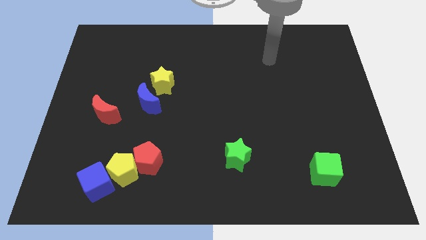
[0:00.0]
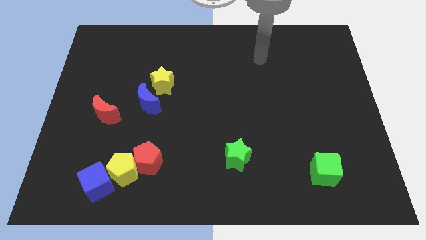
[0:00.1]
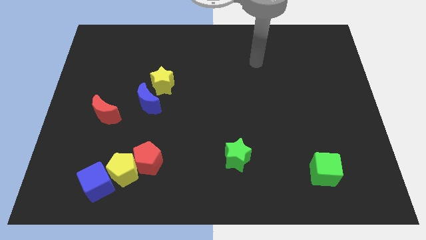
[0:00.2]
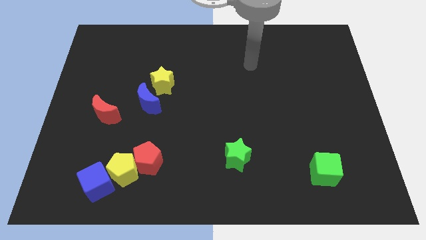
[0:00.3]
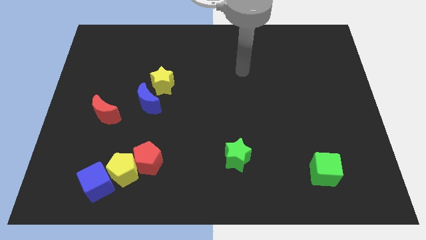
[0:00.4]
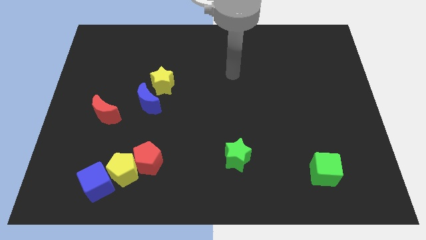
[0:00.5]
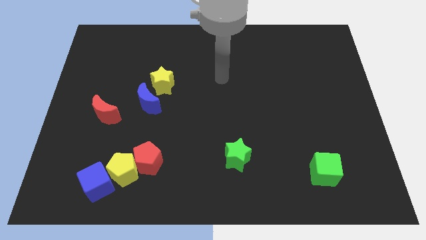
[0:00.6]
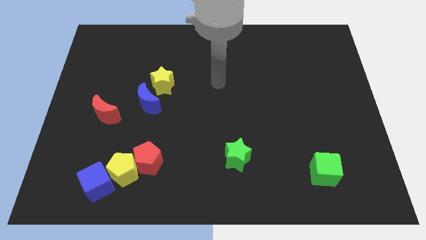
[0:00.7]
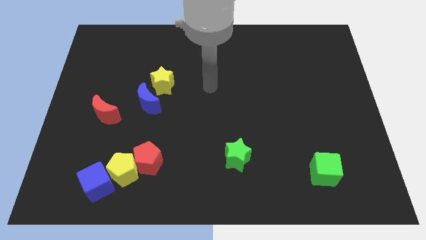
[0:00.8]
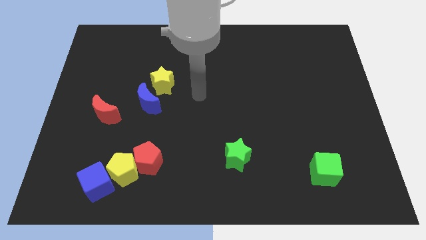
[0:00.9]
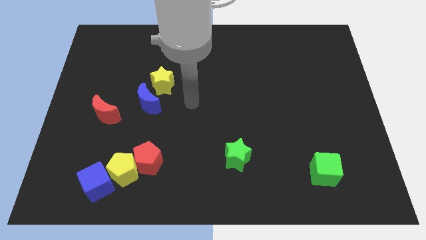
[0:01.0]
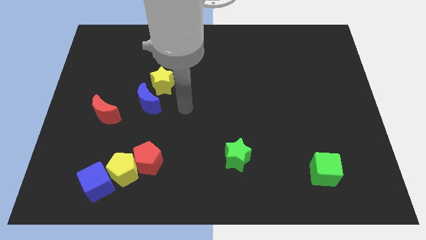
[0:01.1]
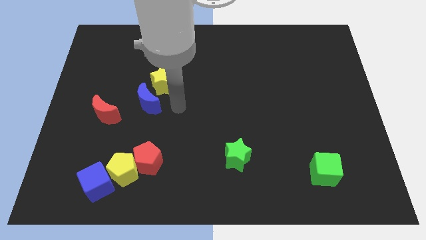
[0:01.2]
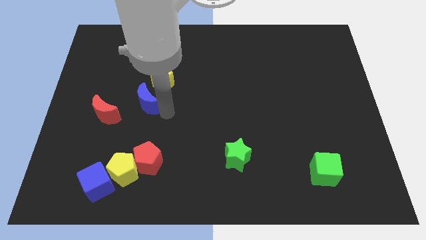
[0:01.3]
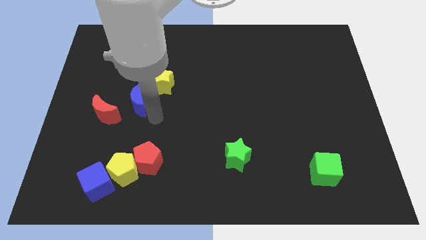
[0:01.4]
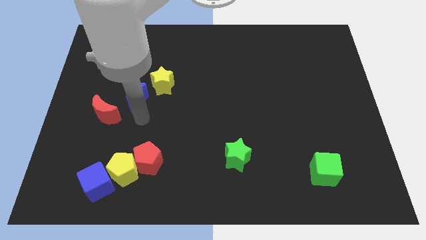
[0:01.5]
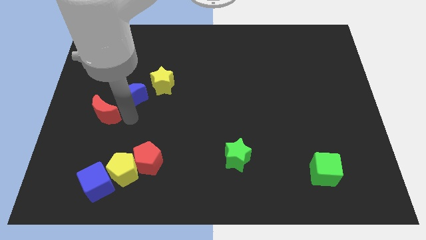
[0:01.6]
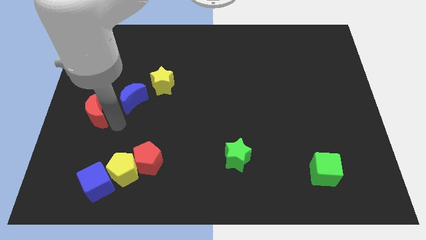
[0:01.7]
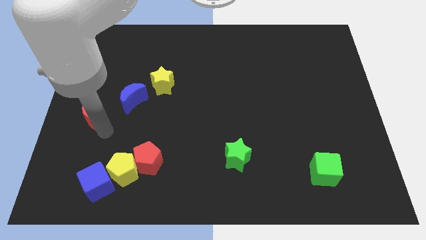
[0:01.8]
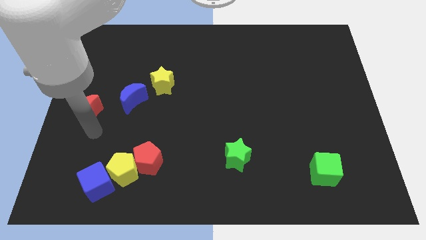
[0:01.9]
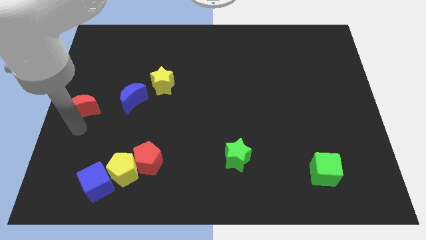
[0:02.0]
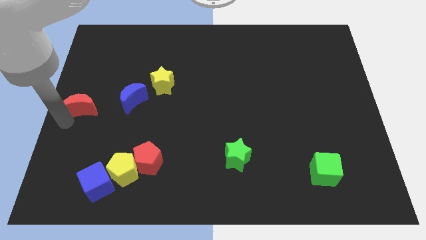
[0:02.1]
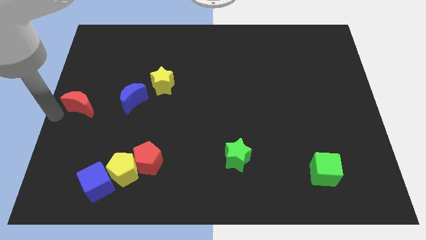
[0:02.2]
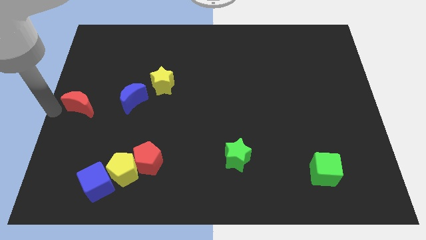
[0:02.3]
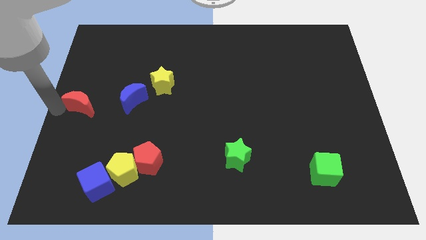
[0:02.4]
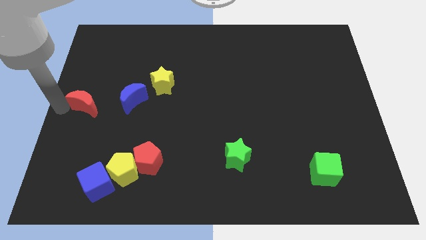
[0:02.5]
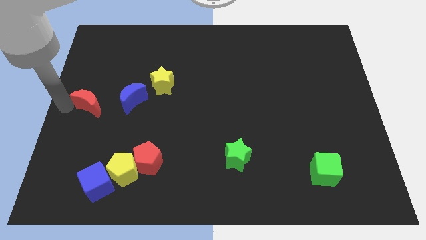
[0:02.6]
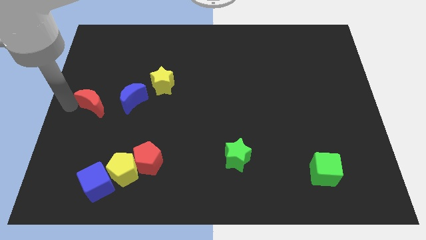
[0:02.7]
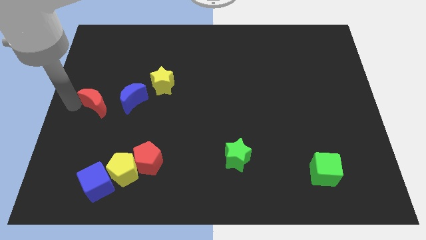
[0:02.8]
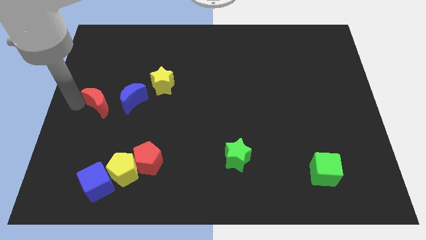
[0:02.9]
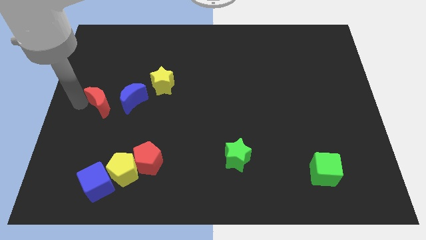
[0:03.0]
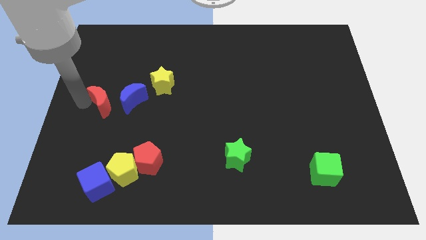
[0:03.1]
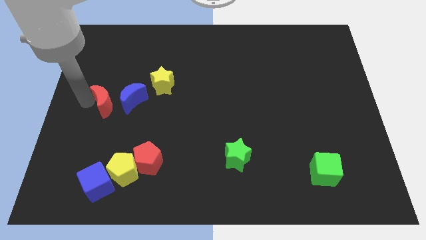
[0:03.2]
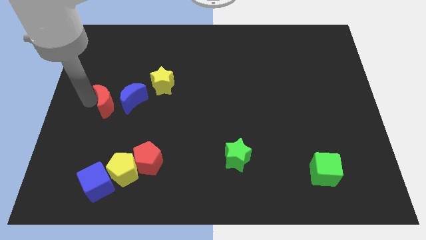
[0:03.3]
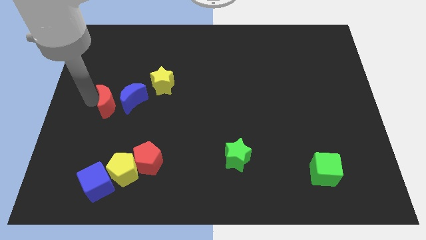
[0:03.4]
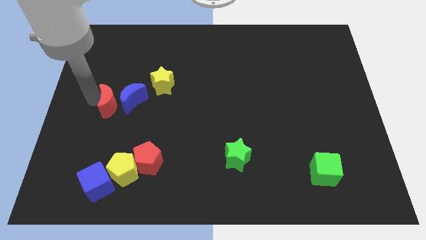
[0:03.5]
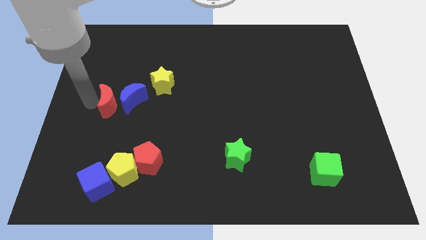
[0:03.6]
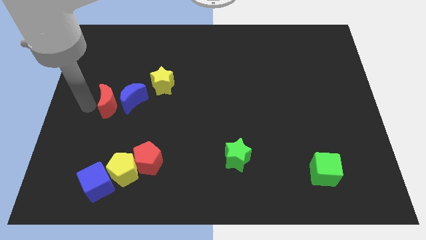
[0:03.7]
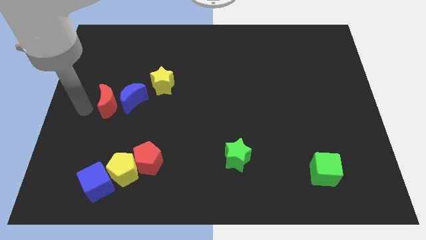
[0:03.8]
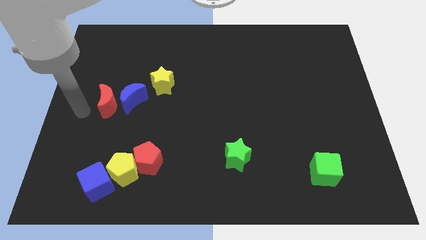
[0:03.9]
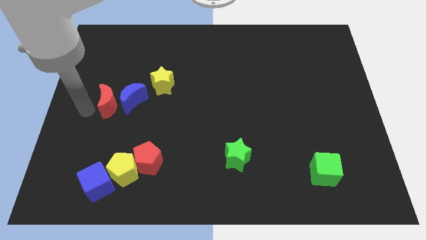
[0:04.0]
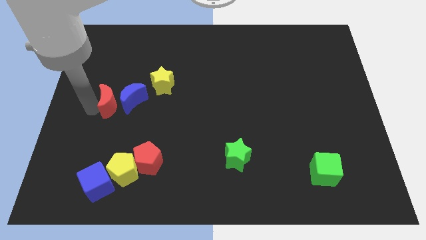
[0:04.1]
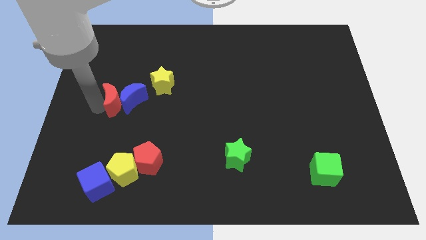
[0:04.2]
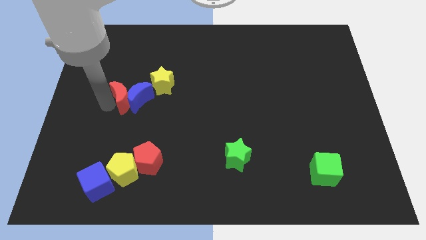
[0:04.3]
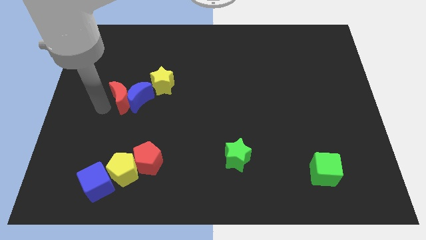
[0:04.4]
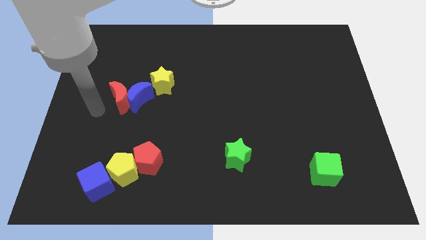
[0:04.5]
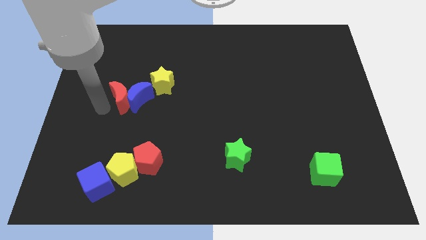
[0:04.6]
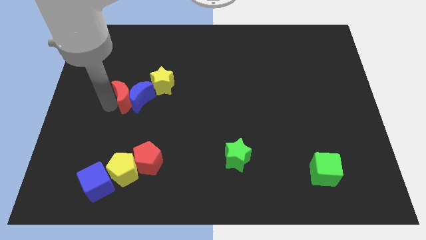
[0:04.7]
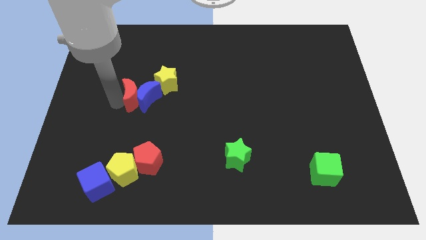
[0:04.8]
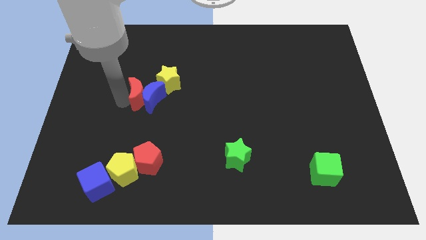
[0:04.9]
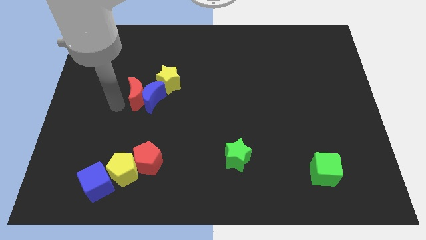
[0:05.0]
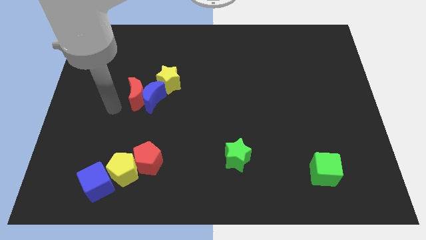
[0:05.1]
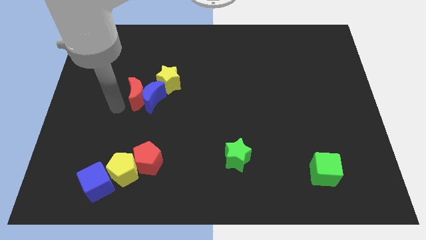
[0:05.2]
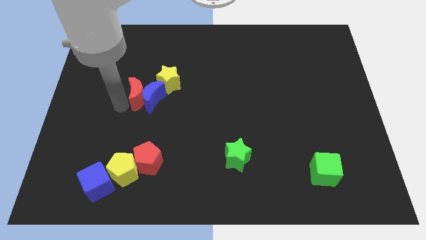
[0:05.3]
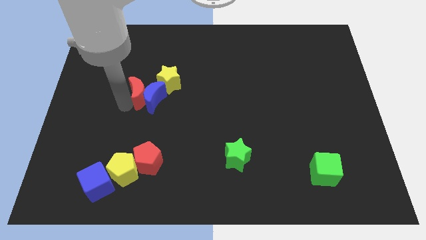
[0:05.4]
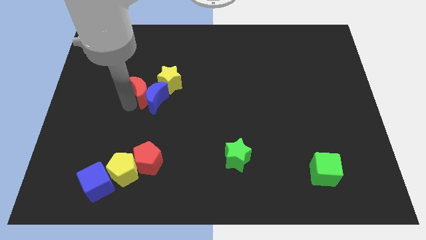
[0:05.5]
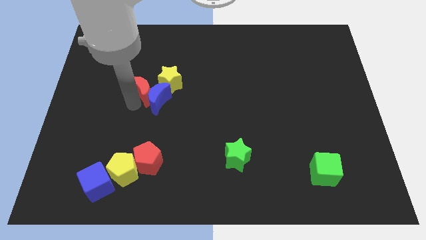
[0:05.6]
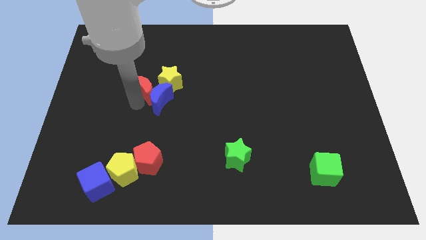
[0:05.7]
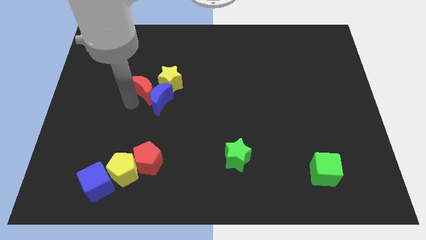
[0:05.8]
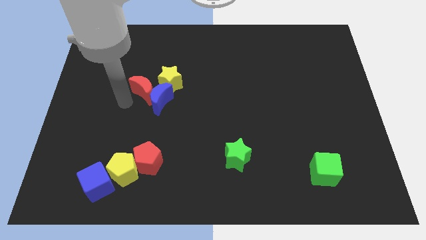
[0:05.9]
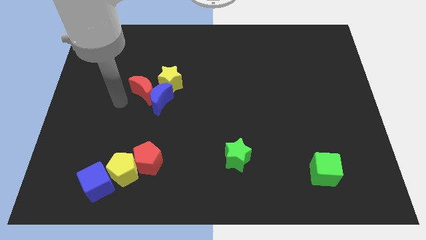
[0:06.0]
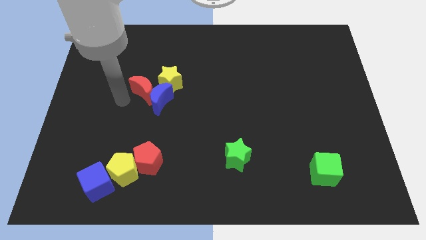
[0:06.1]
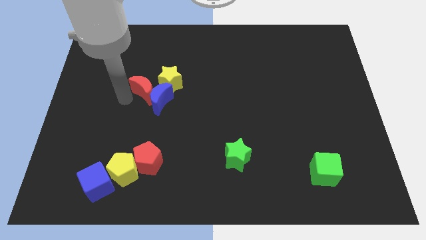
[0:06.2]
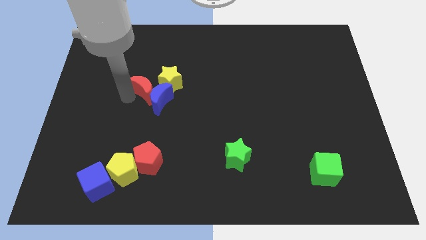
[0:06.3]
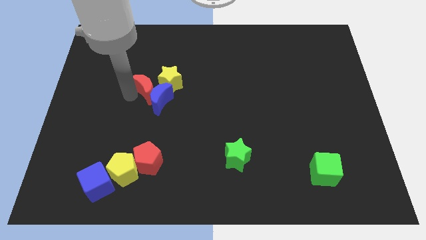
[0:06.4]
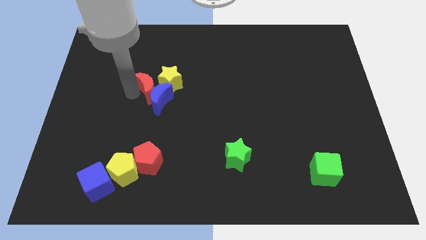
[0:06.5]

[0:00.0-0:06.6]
push the red moon next to the yellow star

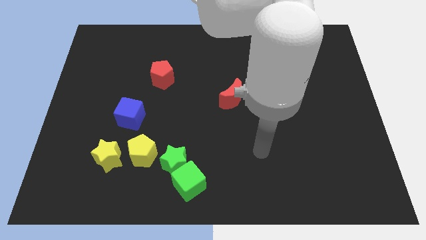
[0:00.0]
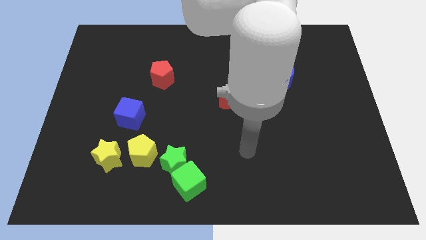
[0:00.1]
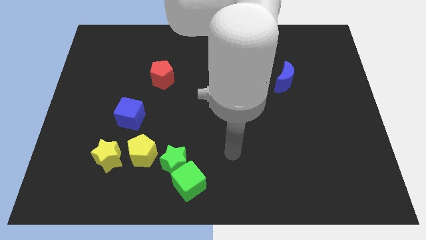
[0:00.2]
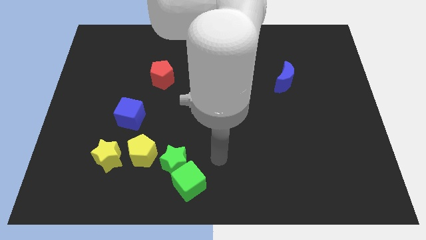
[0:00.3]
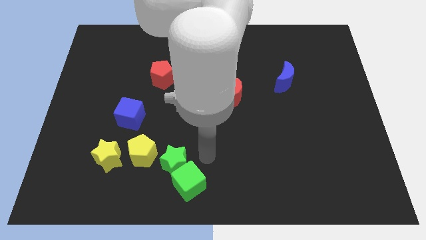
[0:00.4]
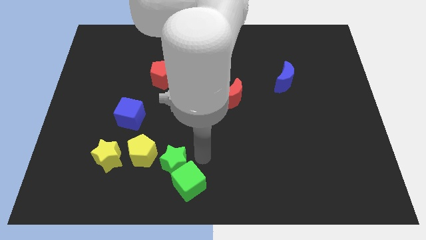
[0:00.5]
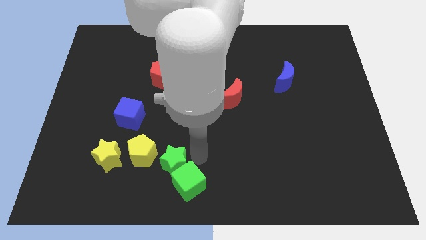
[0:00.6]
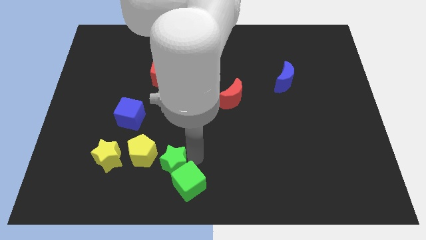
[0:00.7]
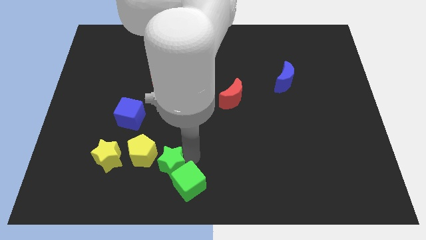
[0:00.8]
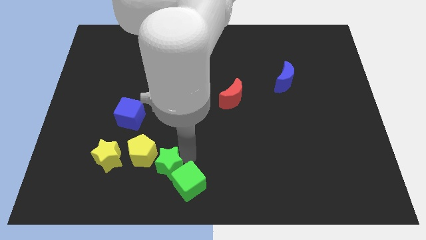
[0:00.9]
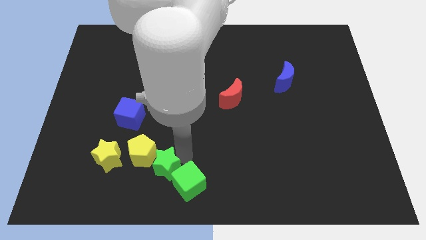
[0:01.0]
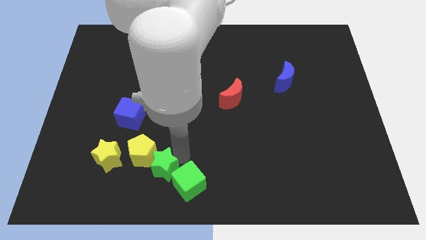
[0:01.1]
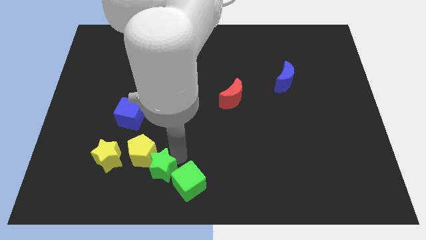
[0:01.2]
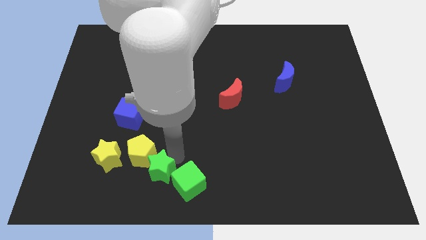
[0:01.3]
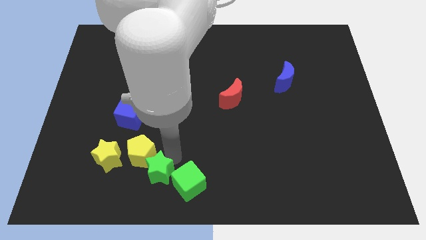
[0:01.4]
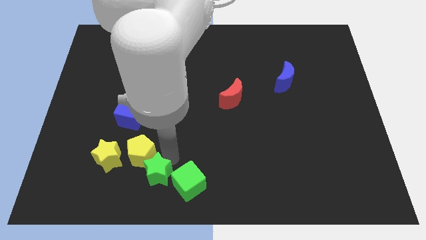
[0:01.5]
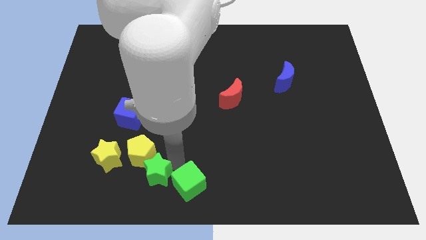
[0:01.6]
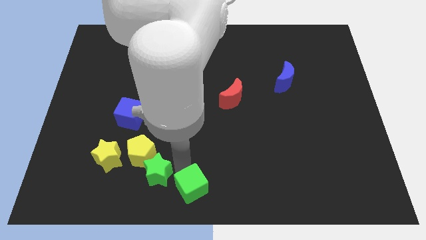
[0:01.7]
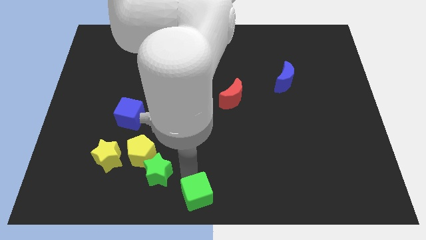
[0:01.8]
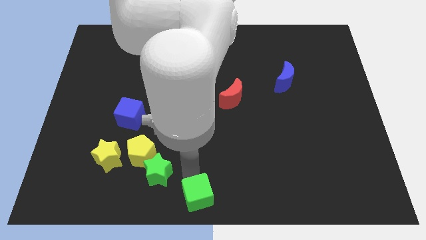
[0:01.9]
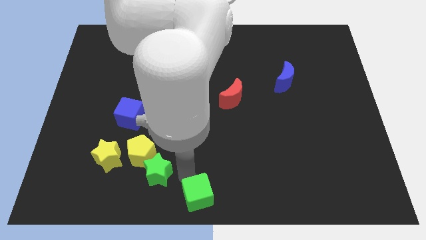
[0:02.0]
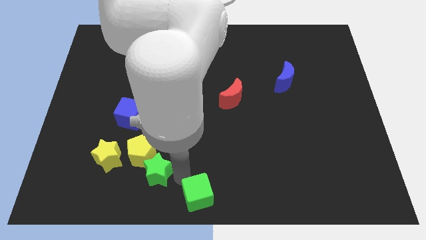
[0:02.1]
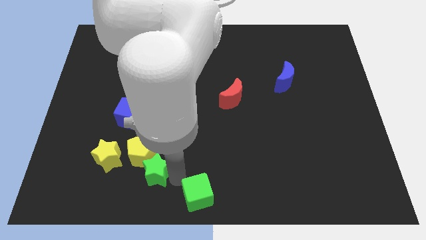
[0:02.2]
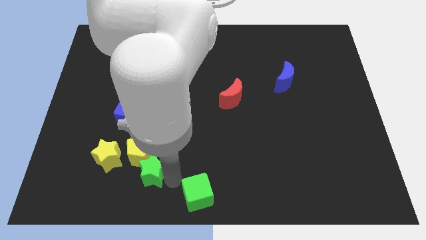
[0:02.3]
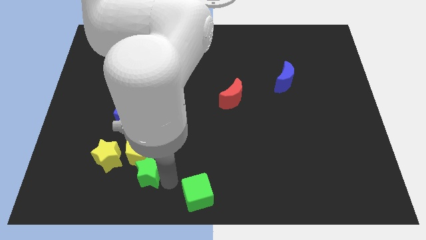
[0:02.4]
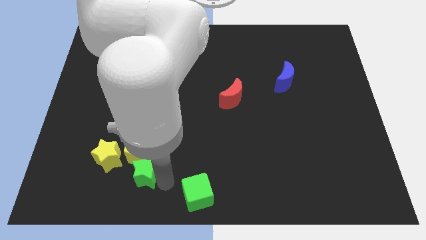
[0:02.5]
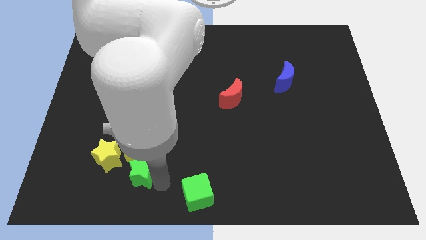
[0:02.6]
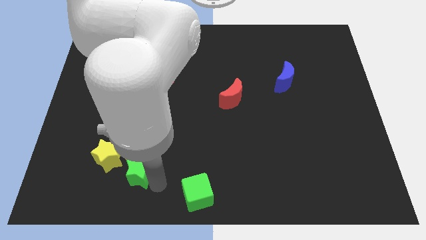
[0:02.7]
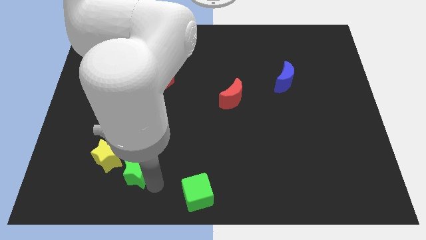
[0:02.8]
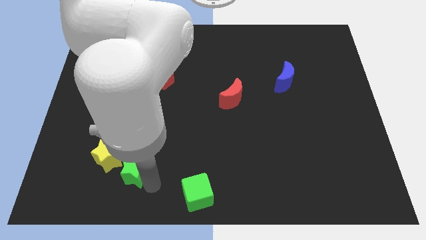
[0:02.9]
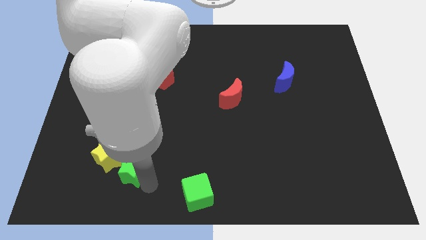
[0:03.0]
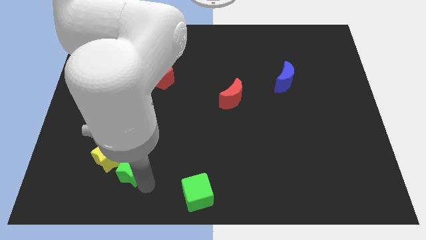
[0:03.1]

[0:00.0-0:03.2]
move the green star next to the yellow star
